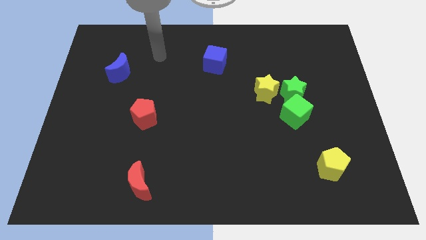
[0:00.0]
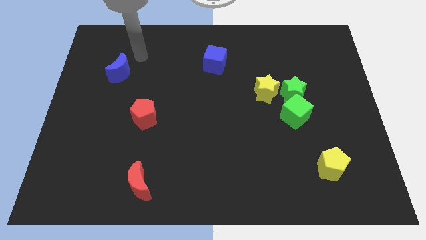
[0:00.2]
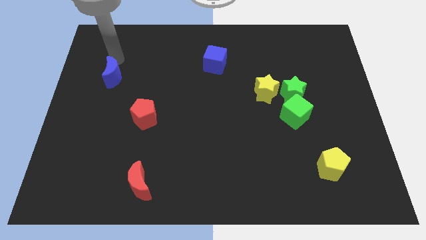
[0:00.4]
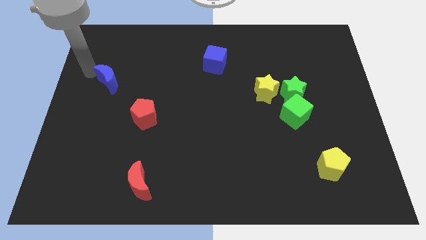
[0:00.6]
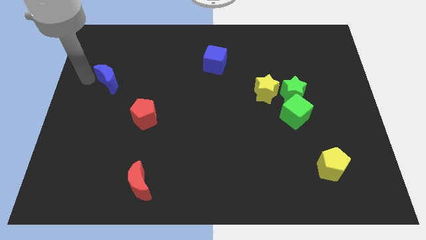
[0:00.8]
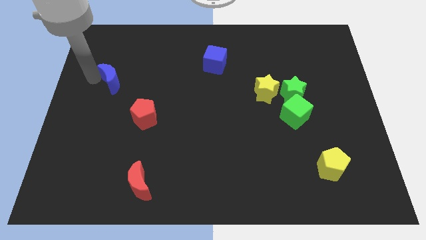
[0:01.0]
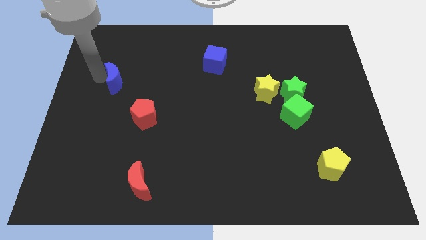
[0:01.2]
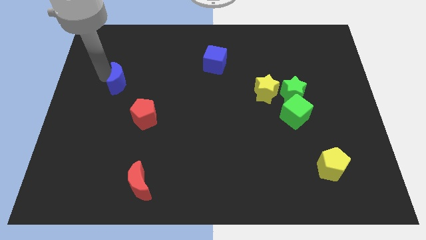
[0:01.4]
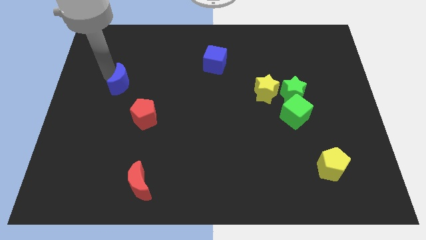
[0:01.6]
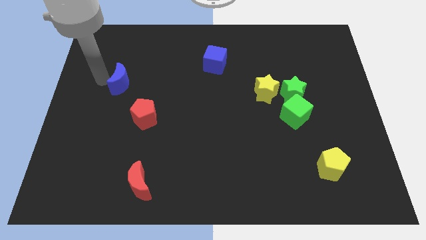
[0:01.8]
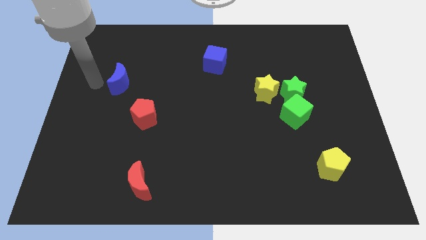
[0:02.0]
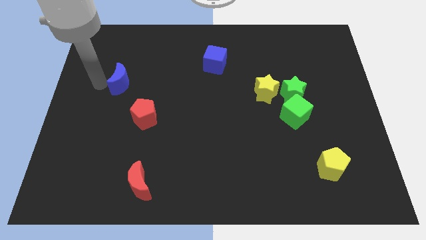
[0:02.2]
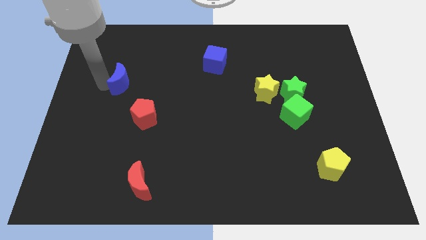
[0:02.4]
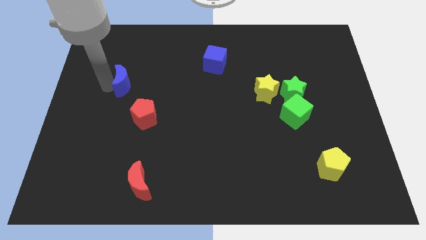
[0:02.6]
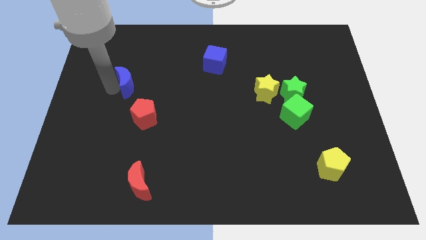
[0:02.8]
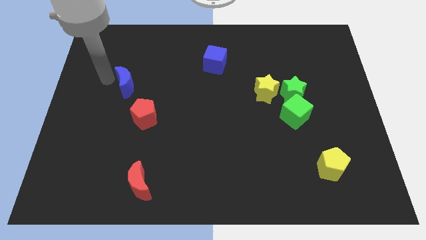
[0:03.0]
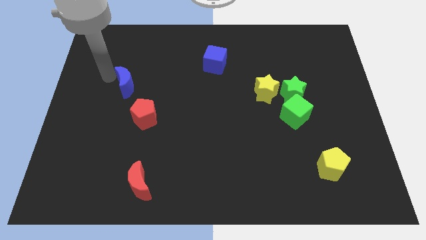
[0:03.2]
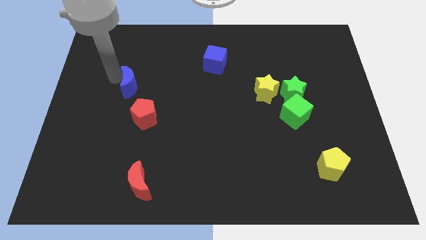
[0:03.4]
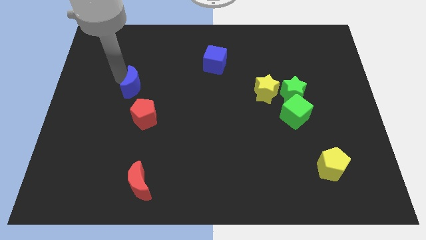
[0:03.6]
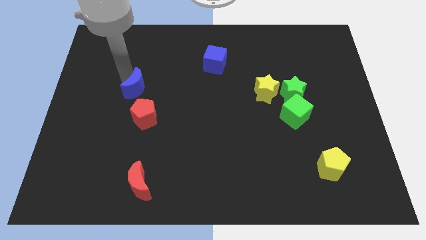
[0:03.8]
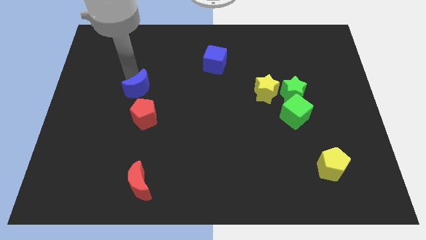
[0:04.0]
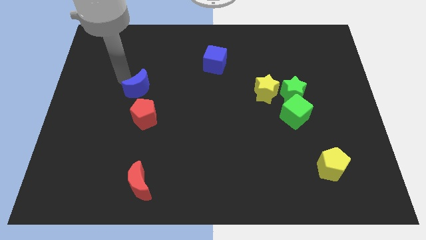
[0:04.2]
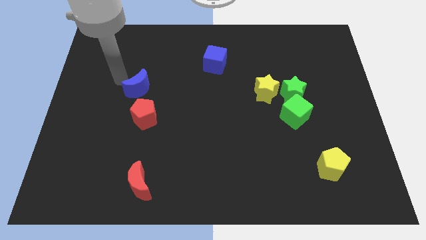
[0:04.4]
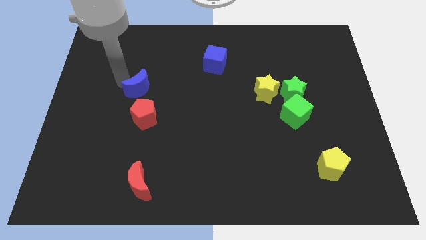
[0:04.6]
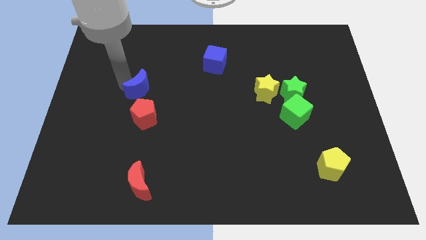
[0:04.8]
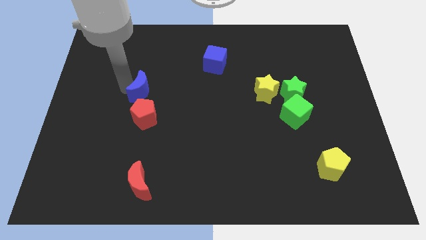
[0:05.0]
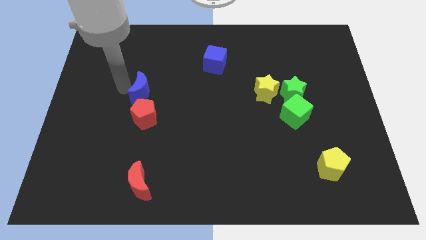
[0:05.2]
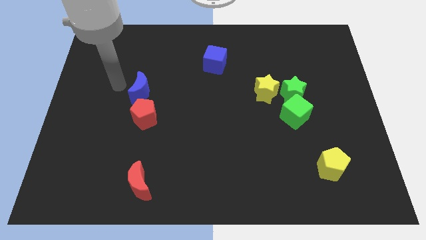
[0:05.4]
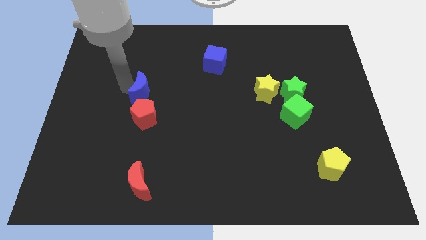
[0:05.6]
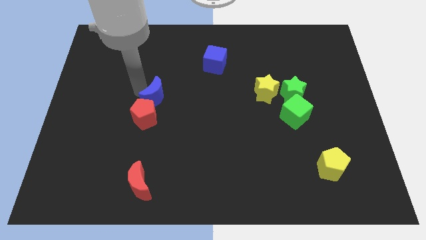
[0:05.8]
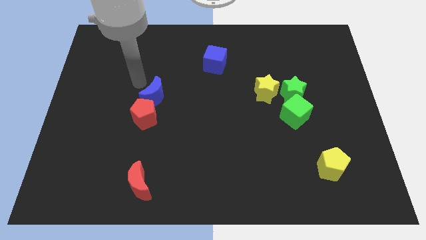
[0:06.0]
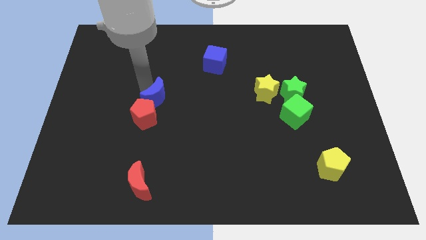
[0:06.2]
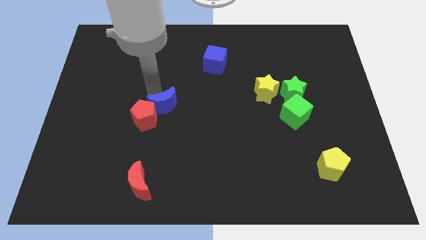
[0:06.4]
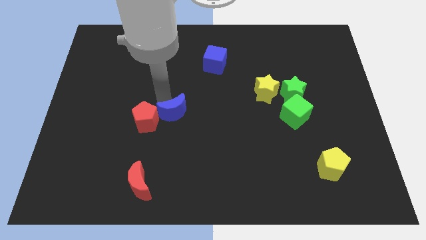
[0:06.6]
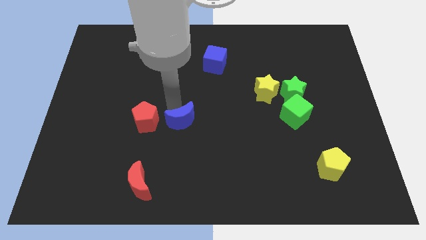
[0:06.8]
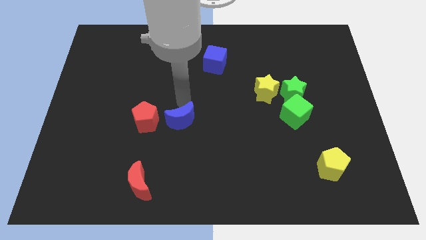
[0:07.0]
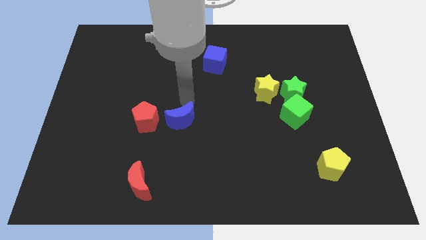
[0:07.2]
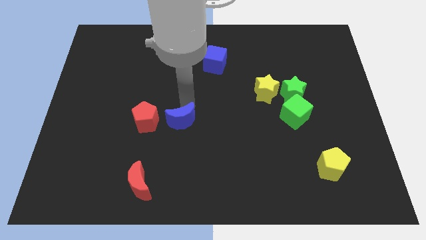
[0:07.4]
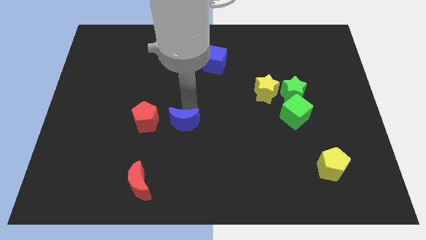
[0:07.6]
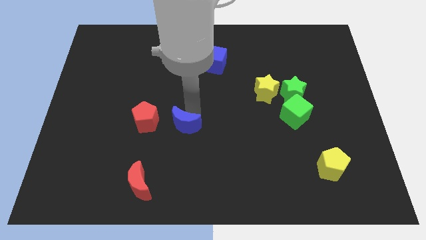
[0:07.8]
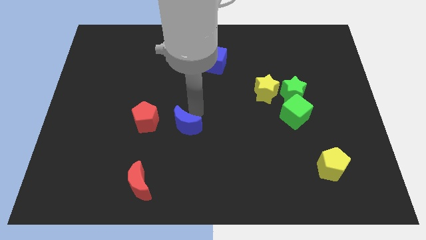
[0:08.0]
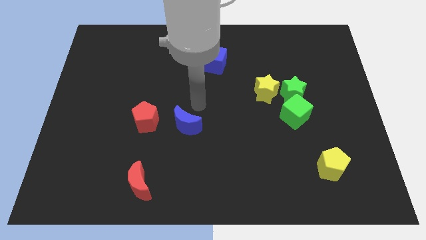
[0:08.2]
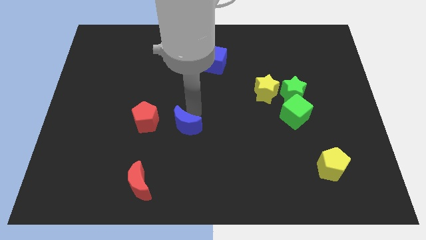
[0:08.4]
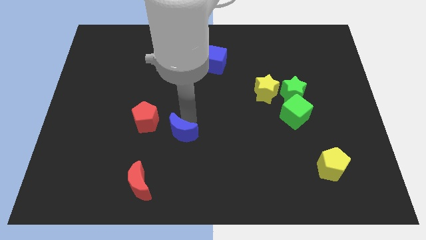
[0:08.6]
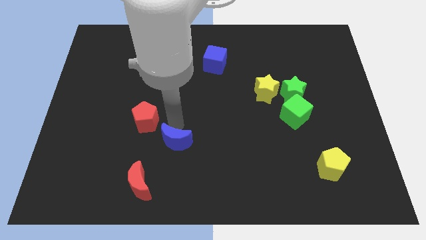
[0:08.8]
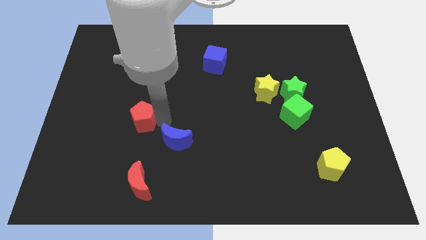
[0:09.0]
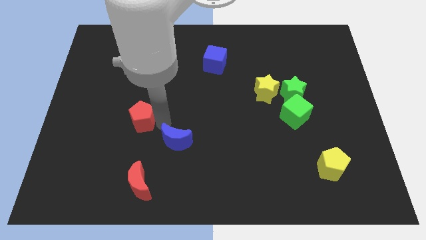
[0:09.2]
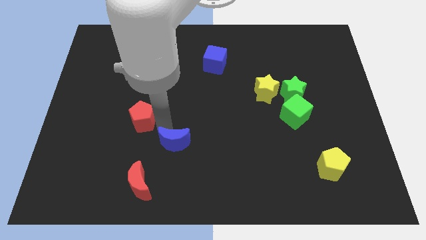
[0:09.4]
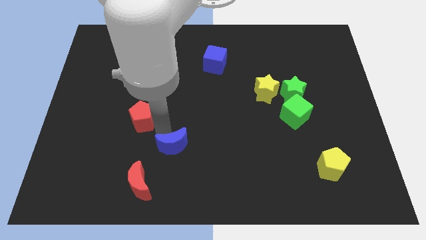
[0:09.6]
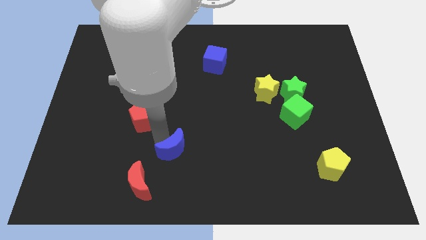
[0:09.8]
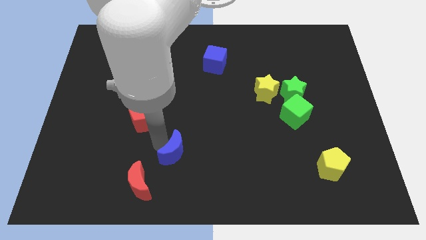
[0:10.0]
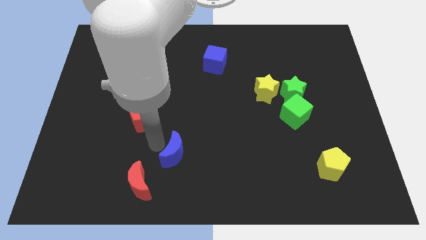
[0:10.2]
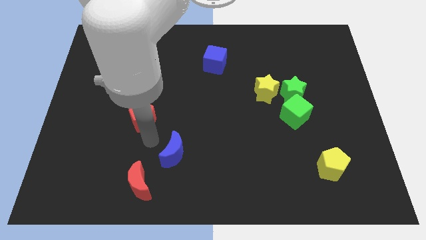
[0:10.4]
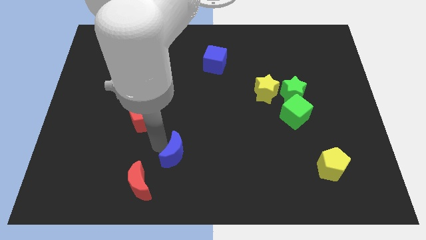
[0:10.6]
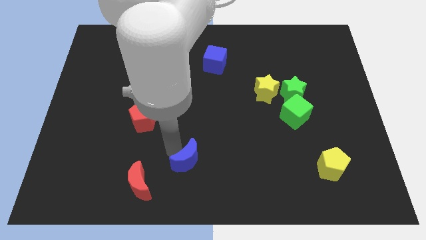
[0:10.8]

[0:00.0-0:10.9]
slide the blue moon to the bottom side
